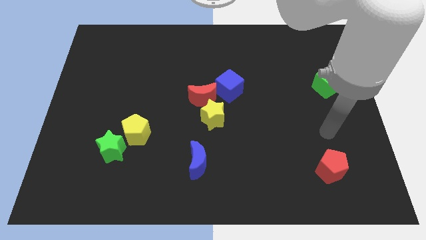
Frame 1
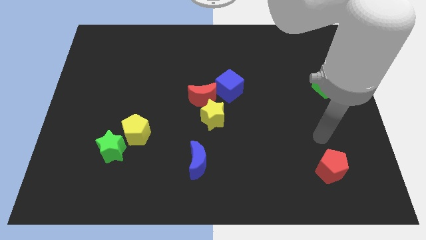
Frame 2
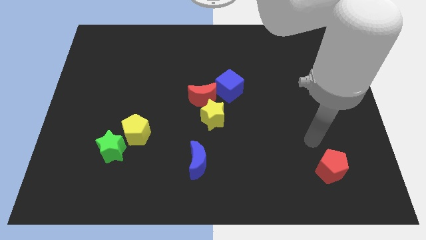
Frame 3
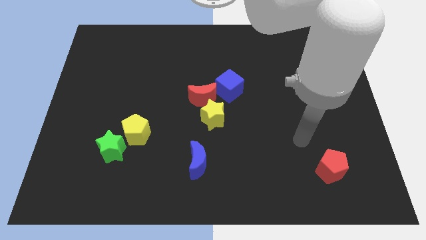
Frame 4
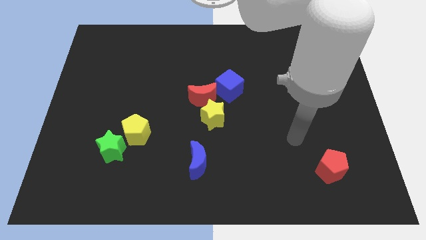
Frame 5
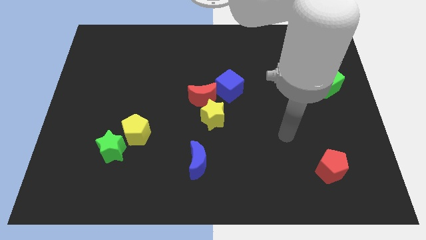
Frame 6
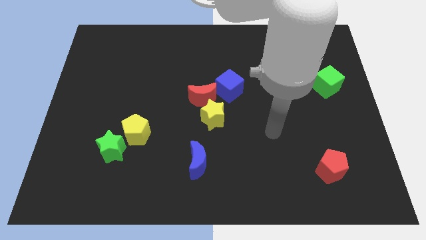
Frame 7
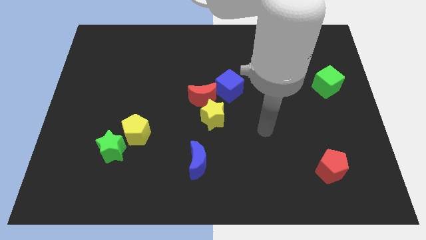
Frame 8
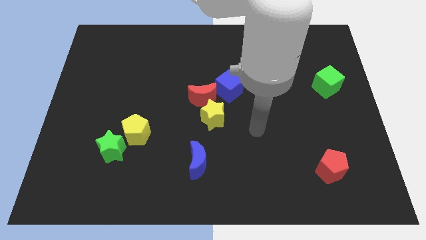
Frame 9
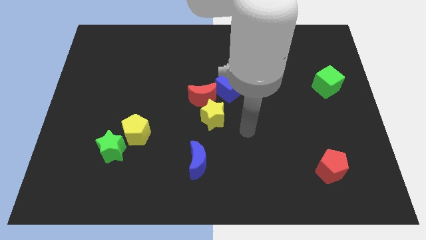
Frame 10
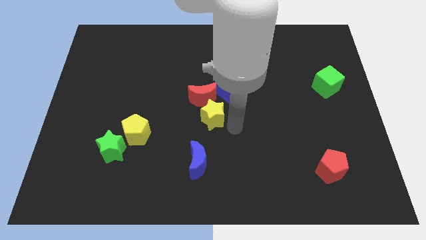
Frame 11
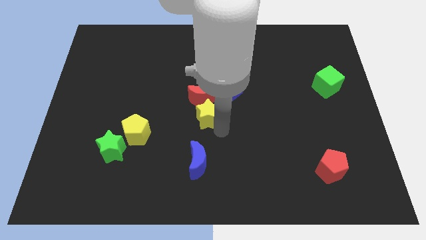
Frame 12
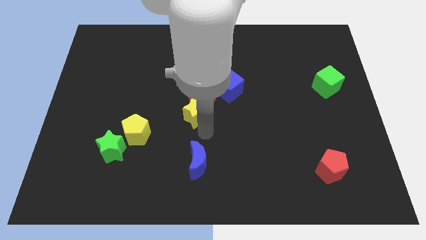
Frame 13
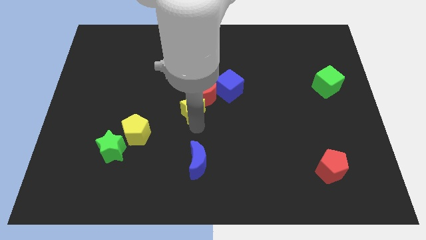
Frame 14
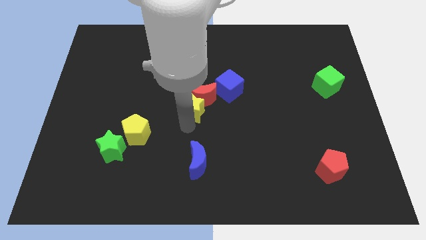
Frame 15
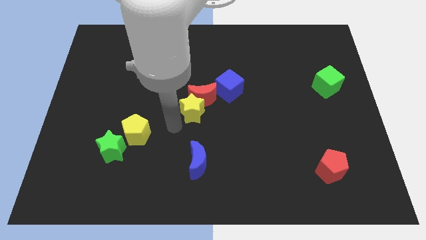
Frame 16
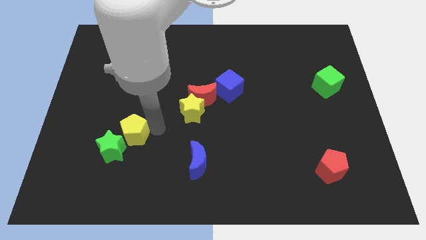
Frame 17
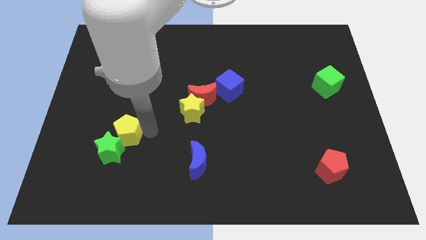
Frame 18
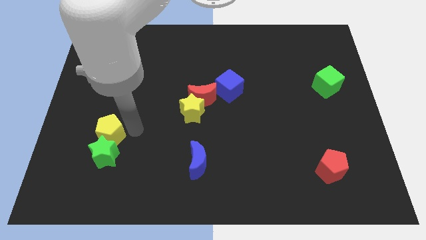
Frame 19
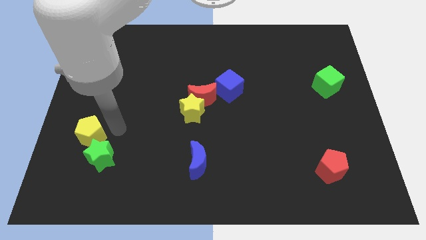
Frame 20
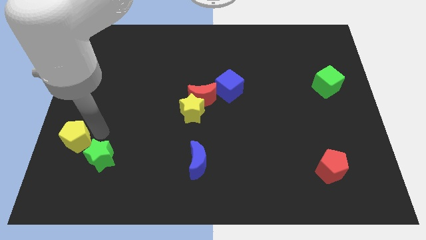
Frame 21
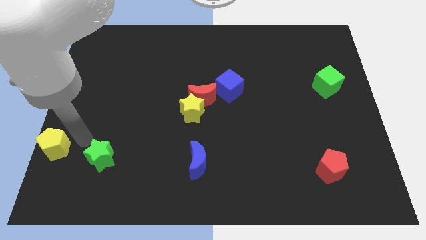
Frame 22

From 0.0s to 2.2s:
move the green star away from the yellow pentagon

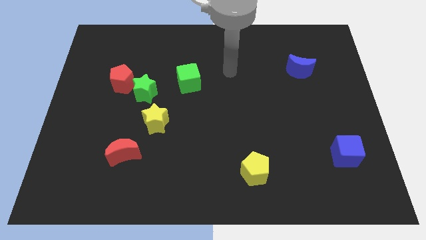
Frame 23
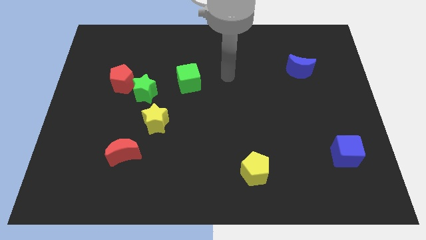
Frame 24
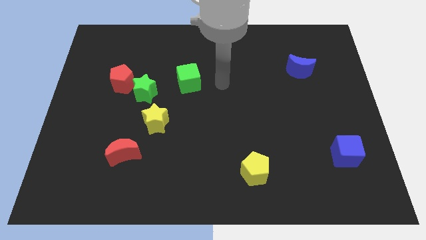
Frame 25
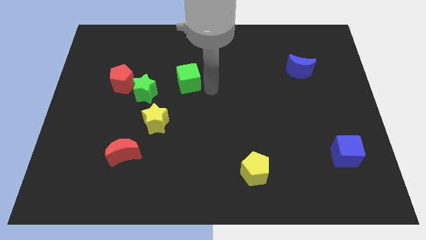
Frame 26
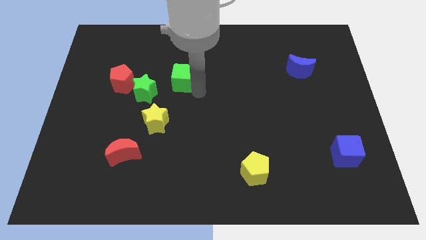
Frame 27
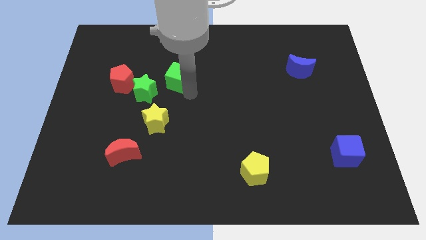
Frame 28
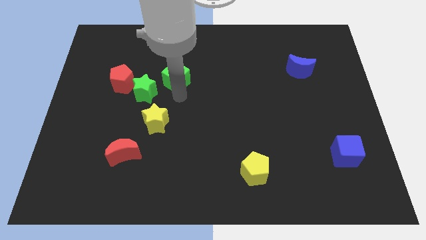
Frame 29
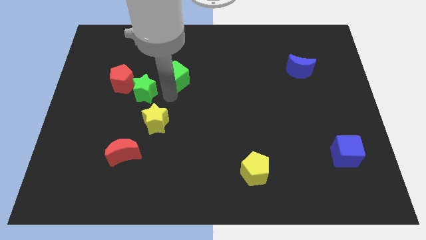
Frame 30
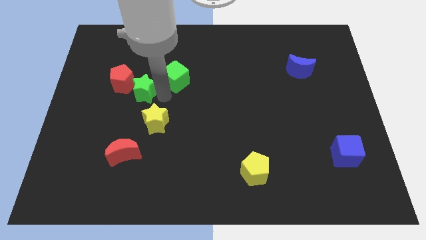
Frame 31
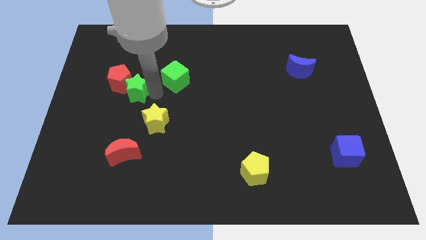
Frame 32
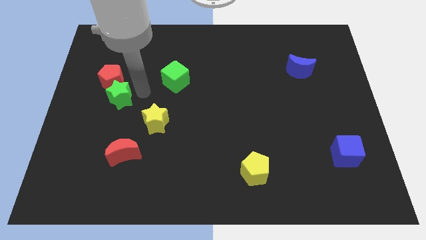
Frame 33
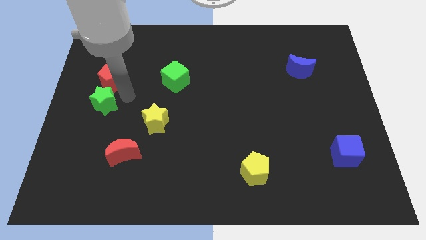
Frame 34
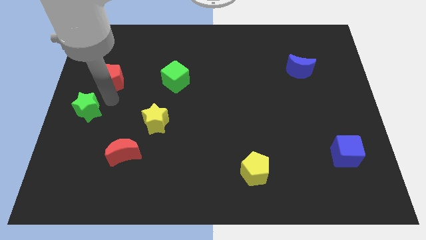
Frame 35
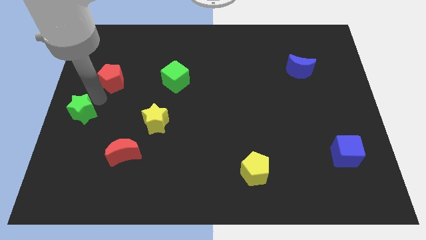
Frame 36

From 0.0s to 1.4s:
pull the red pentagon apart from the green star

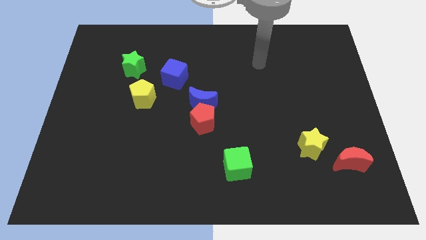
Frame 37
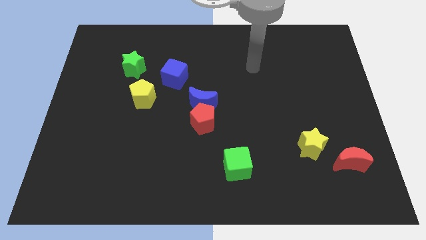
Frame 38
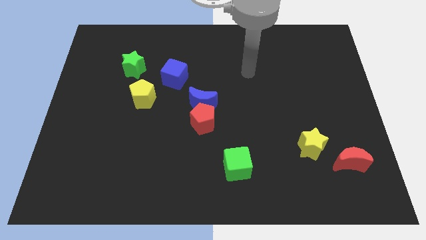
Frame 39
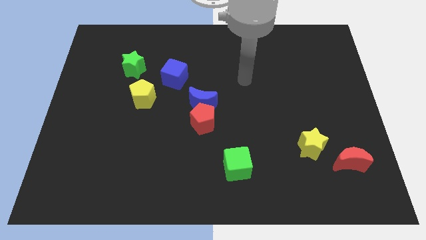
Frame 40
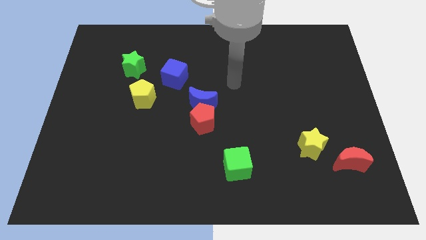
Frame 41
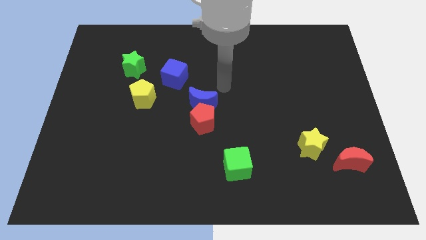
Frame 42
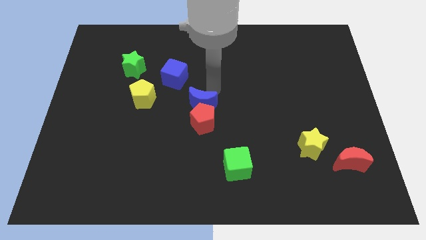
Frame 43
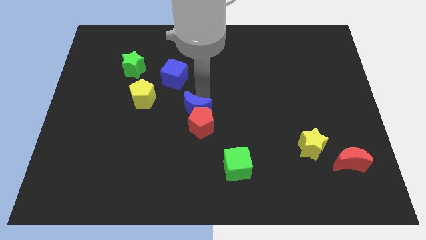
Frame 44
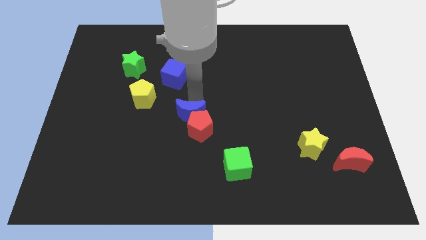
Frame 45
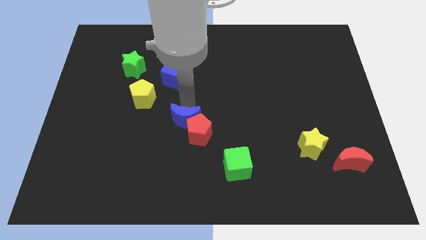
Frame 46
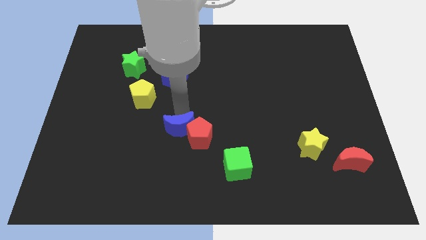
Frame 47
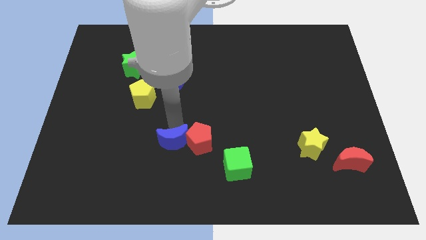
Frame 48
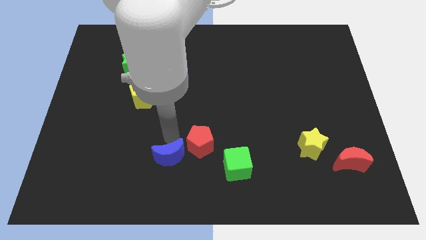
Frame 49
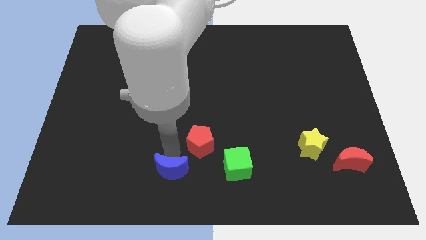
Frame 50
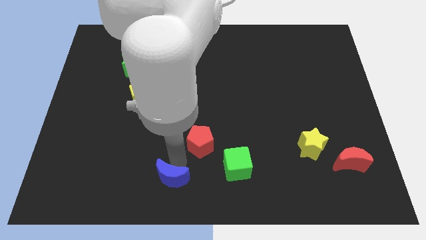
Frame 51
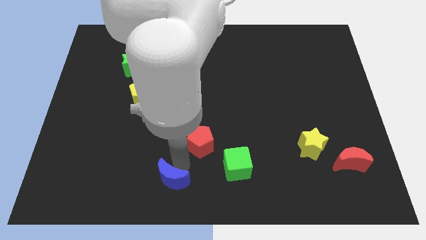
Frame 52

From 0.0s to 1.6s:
pull the red pentagon apart from the blue moon

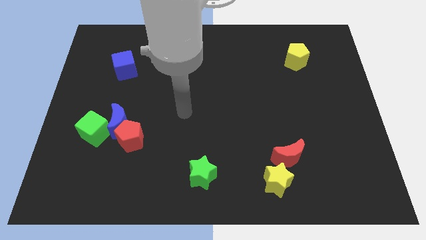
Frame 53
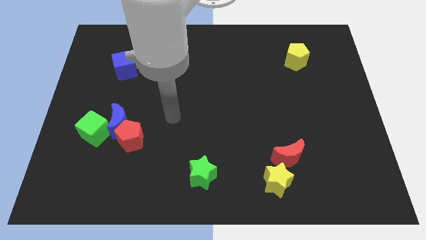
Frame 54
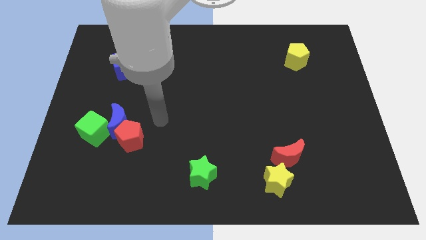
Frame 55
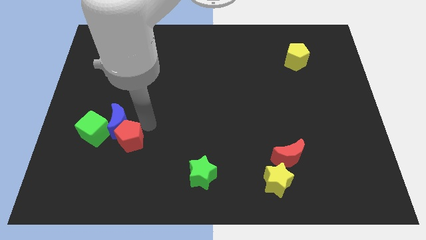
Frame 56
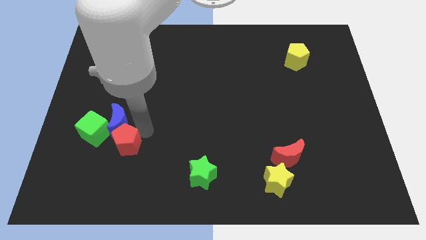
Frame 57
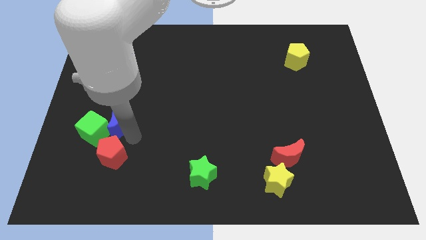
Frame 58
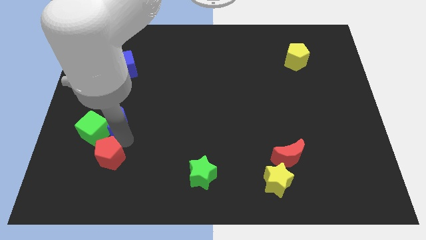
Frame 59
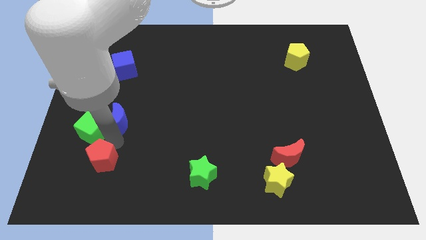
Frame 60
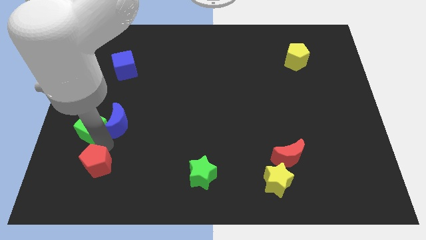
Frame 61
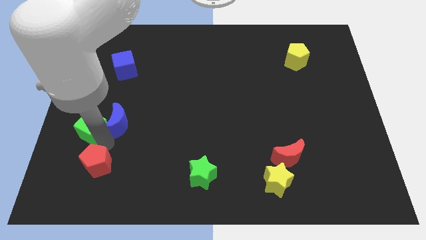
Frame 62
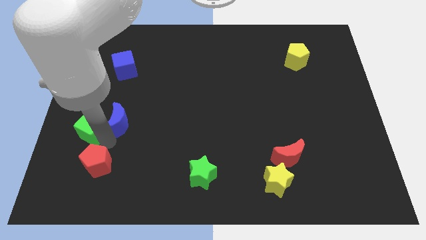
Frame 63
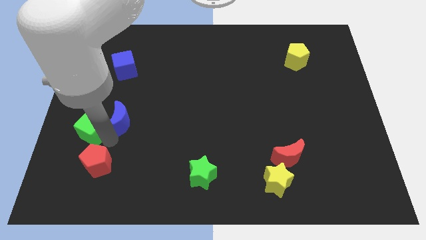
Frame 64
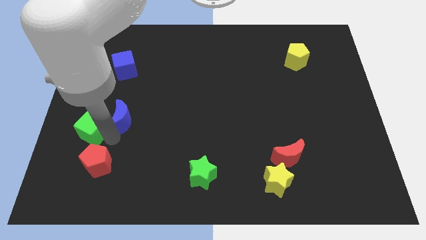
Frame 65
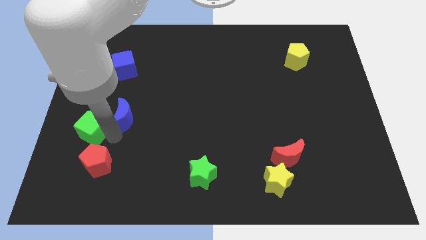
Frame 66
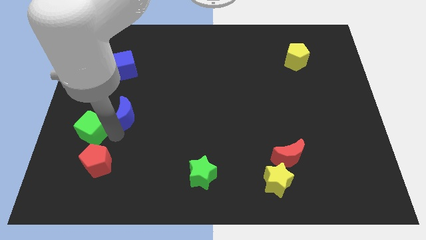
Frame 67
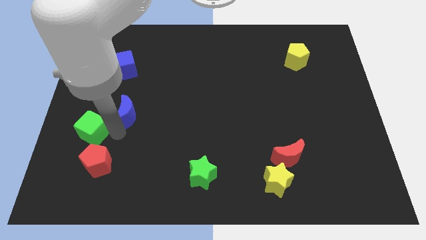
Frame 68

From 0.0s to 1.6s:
separate the blue moon from the red pentagon and green cube

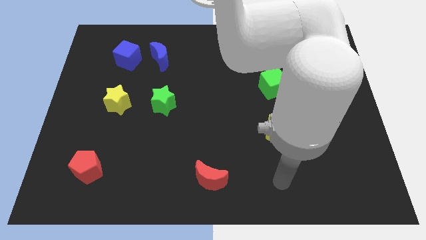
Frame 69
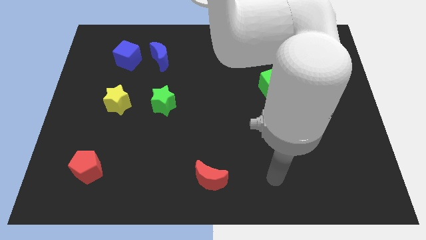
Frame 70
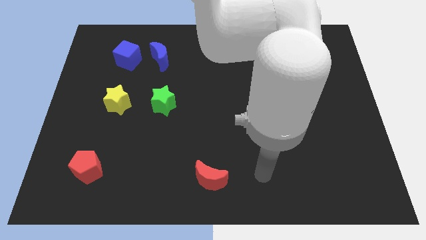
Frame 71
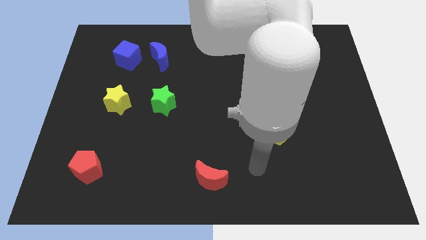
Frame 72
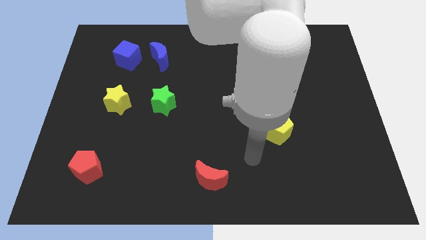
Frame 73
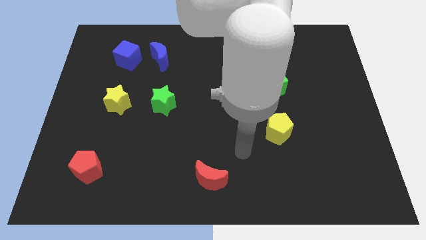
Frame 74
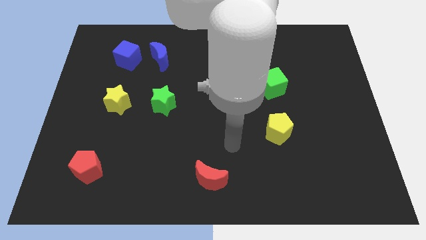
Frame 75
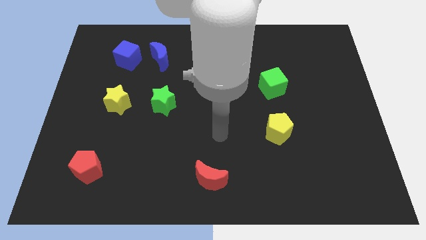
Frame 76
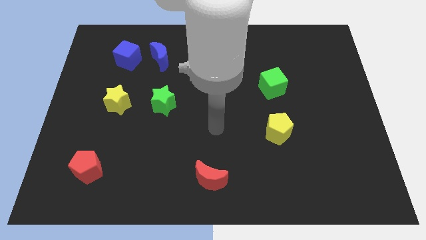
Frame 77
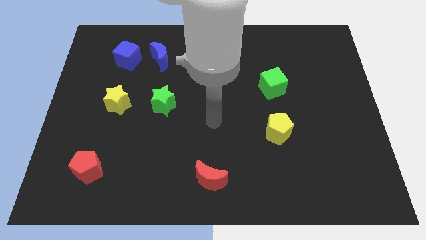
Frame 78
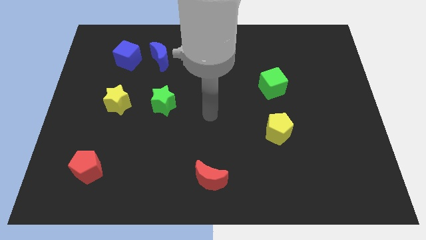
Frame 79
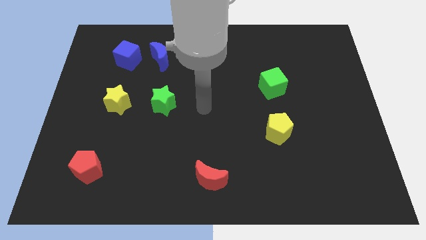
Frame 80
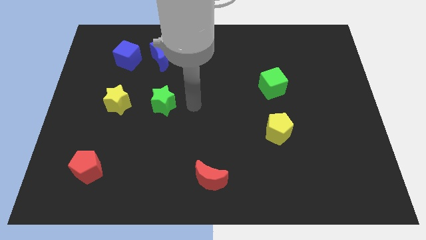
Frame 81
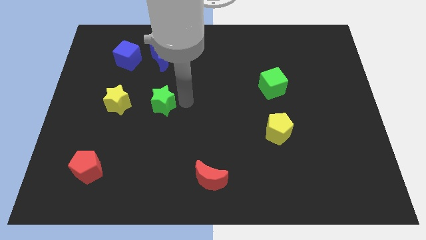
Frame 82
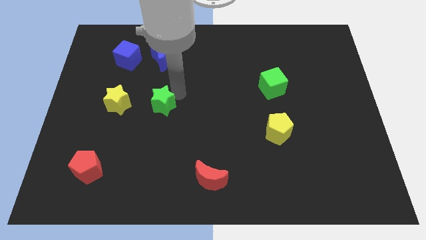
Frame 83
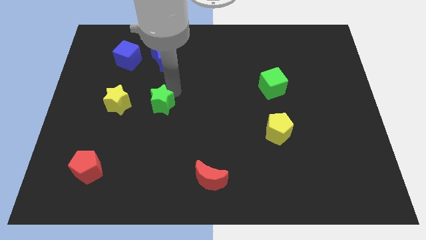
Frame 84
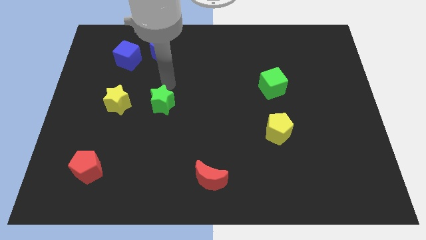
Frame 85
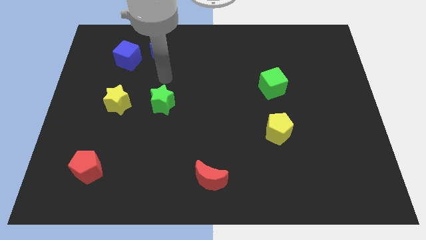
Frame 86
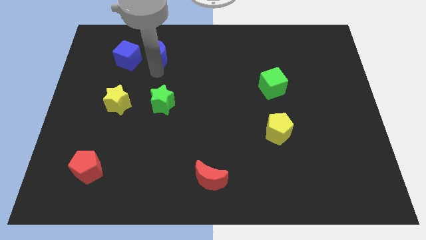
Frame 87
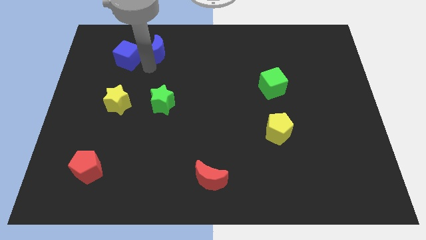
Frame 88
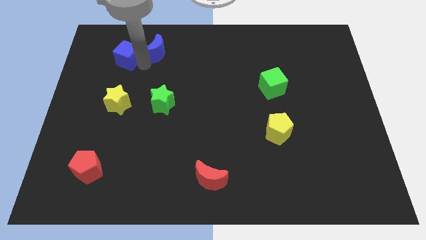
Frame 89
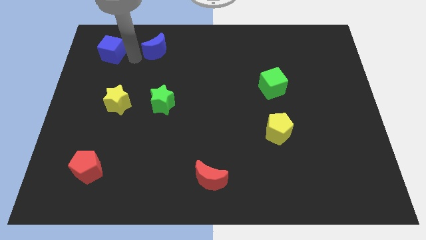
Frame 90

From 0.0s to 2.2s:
move the blue moon away from the blue cube

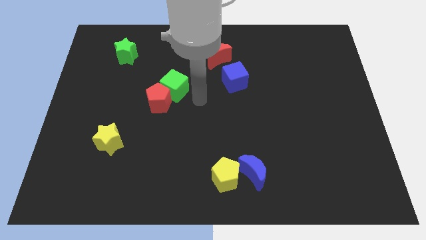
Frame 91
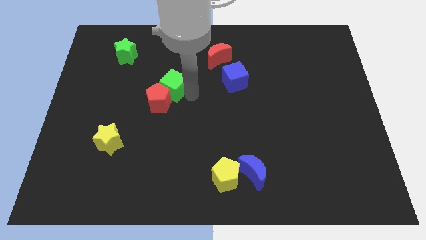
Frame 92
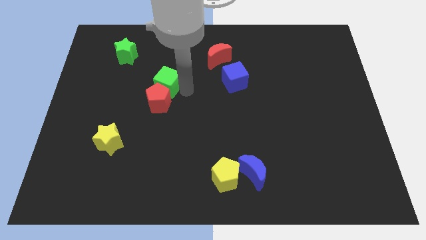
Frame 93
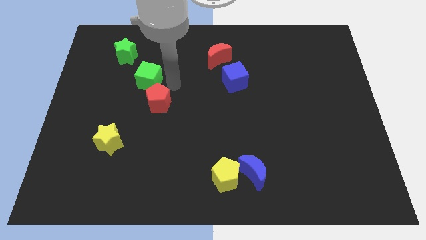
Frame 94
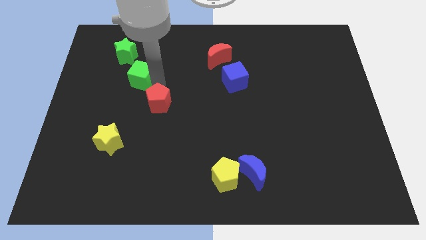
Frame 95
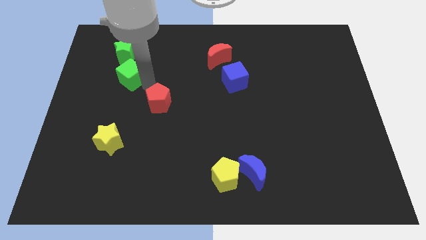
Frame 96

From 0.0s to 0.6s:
move the red pentagon away from the green cube
